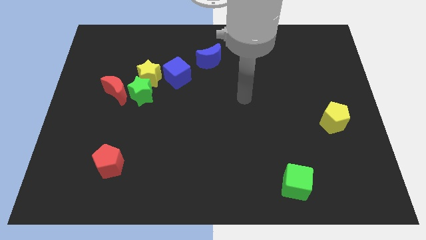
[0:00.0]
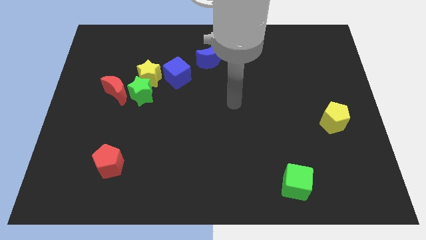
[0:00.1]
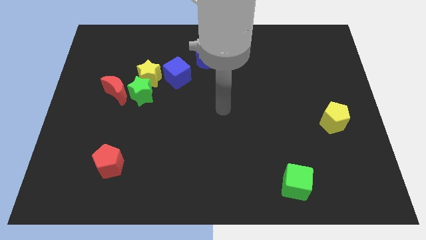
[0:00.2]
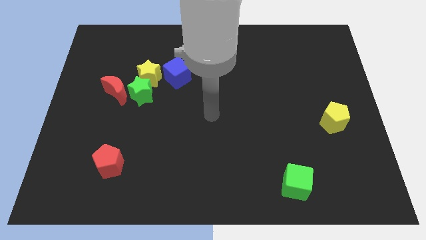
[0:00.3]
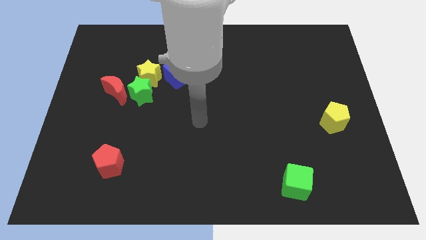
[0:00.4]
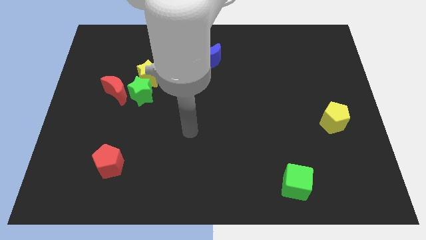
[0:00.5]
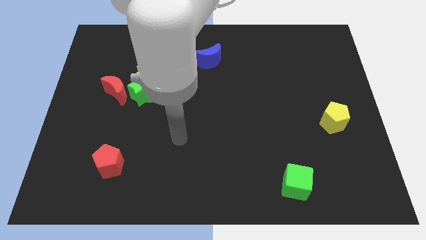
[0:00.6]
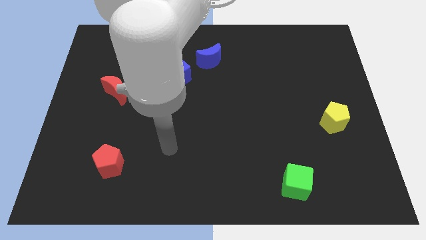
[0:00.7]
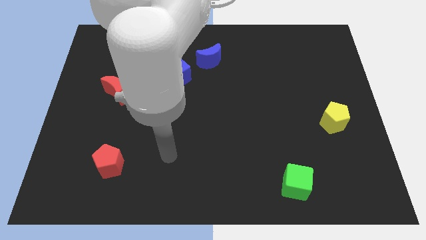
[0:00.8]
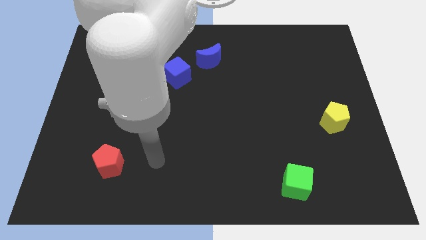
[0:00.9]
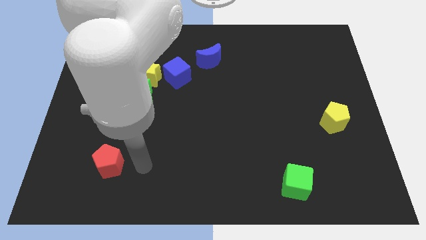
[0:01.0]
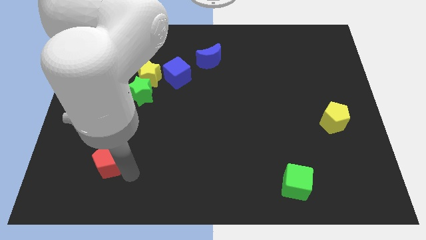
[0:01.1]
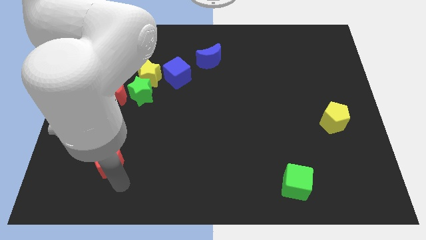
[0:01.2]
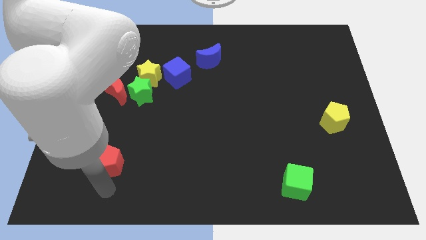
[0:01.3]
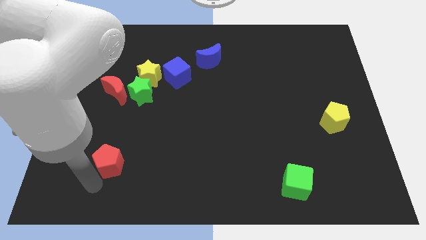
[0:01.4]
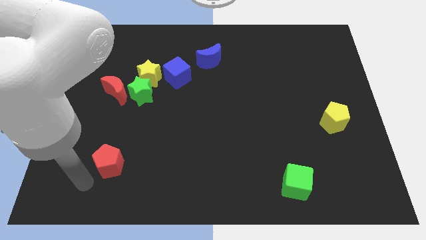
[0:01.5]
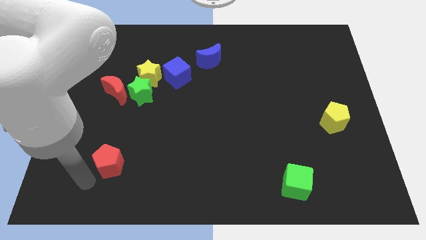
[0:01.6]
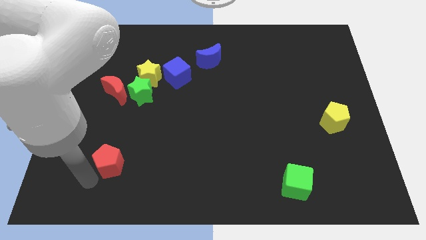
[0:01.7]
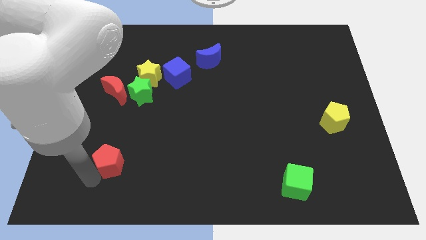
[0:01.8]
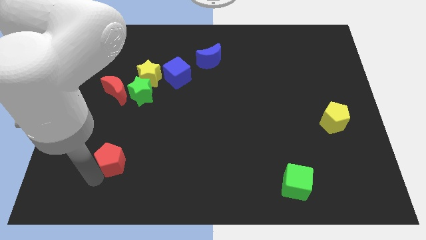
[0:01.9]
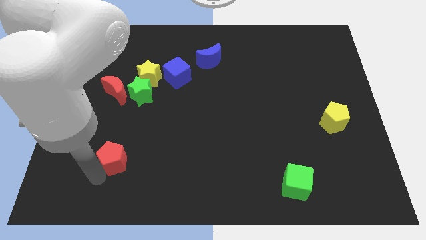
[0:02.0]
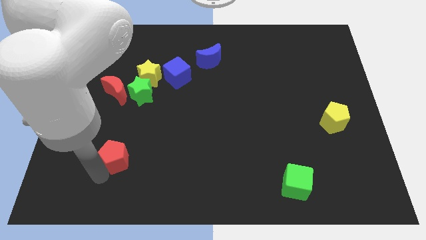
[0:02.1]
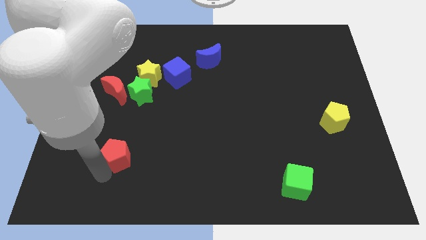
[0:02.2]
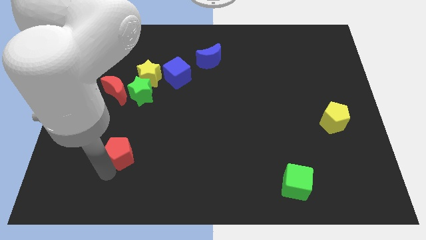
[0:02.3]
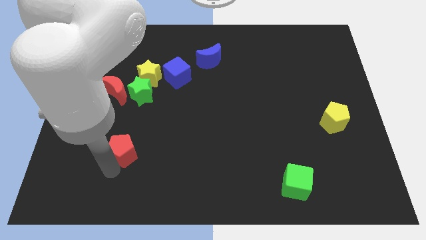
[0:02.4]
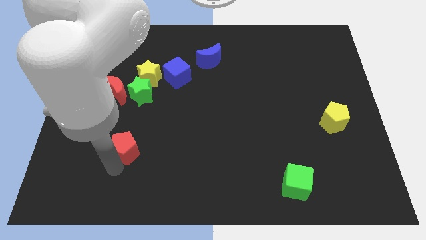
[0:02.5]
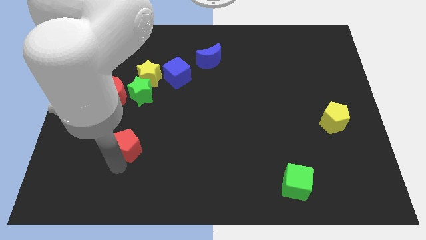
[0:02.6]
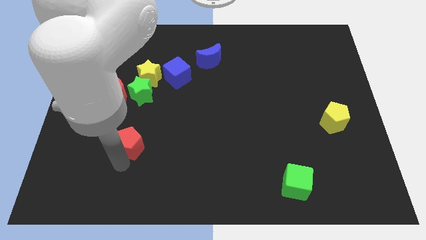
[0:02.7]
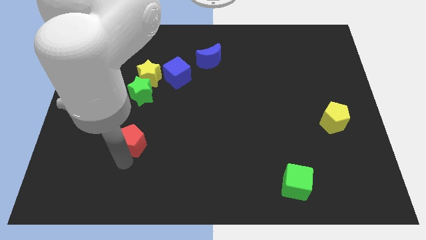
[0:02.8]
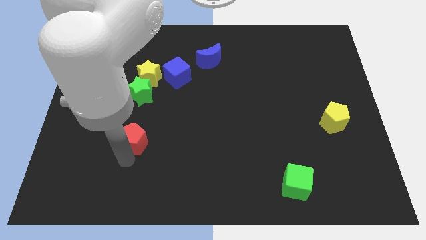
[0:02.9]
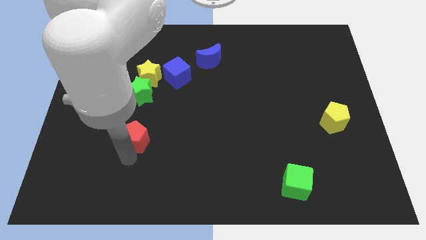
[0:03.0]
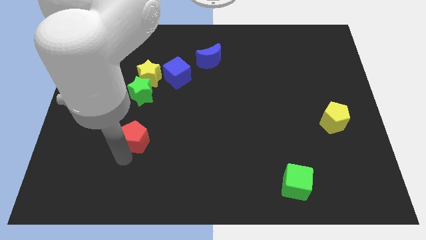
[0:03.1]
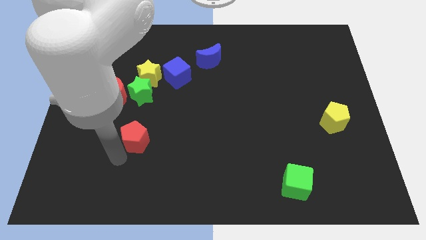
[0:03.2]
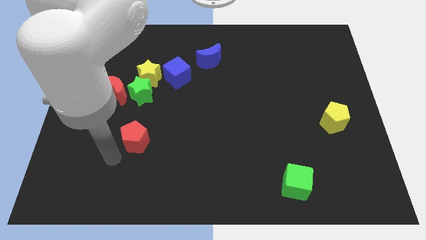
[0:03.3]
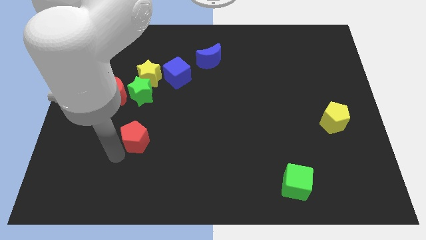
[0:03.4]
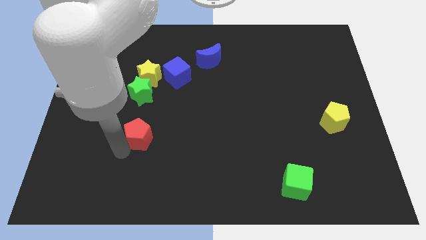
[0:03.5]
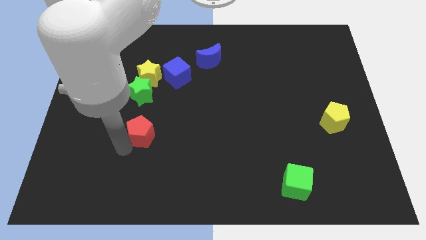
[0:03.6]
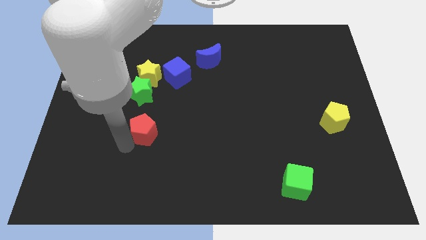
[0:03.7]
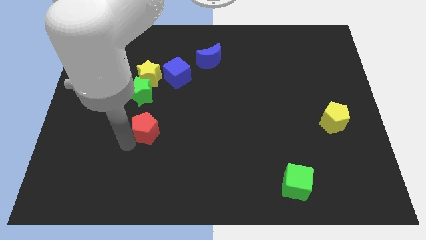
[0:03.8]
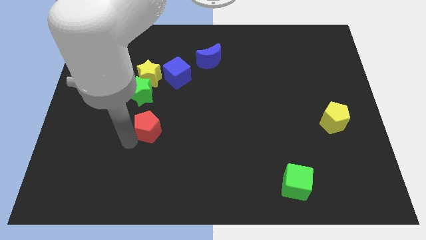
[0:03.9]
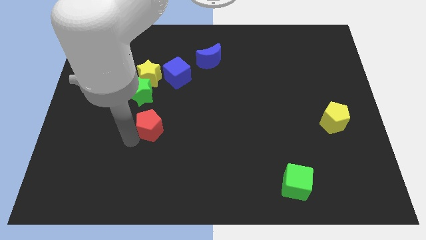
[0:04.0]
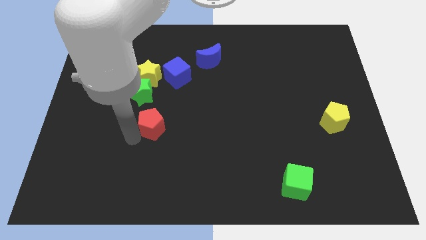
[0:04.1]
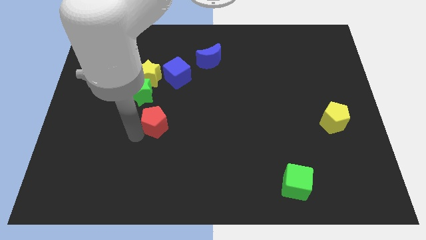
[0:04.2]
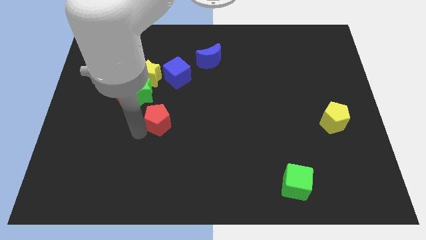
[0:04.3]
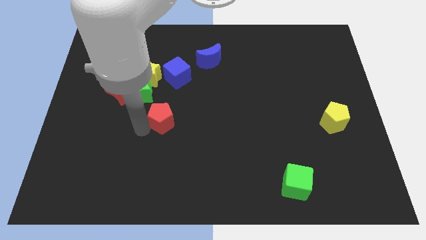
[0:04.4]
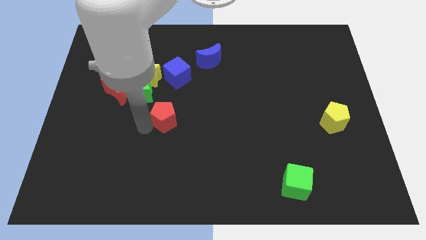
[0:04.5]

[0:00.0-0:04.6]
slide the red pentagon to the center of the board

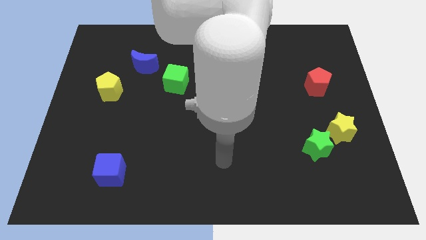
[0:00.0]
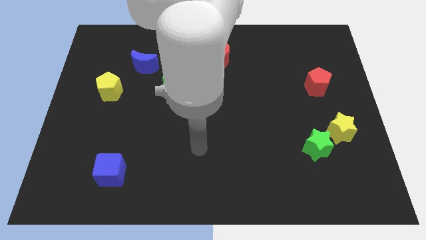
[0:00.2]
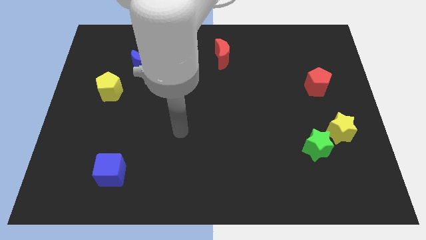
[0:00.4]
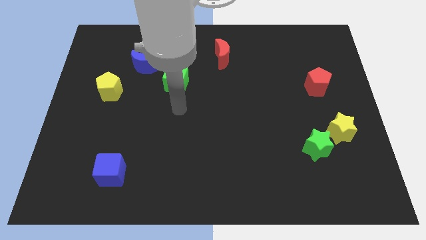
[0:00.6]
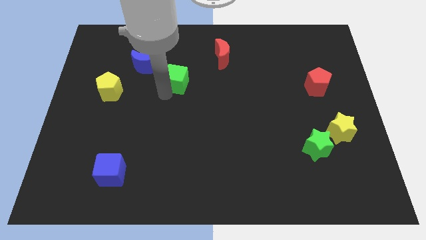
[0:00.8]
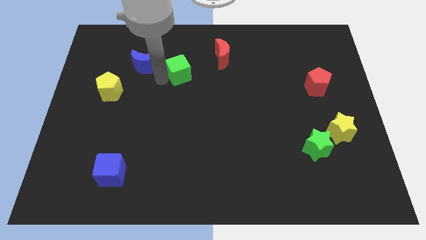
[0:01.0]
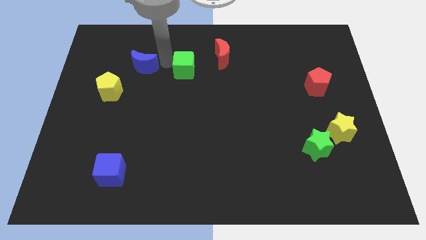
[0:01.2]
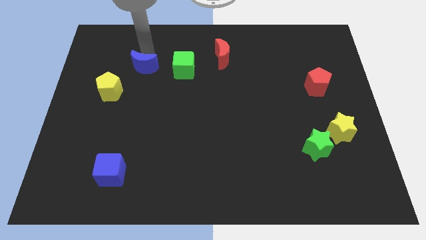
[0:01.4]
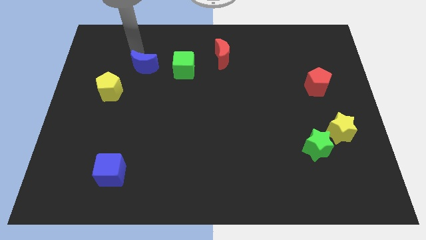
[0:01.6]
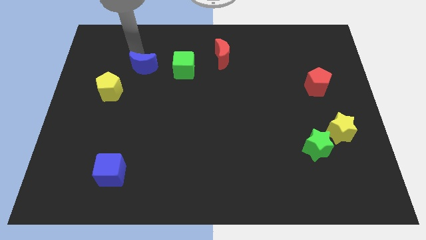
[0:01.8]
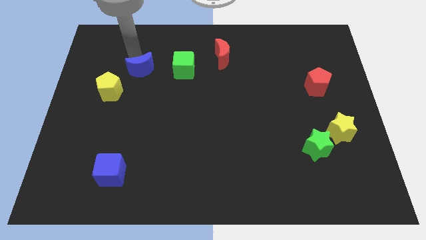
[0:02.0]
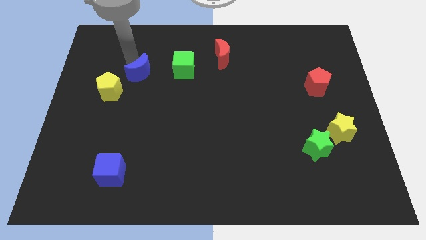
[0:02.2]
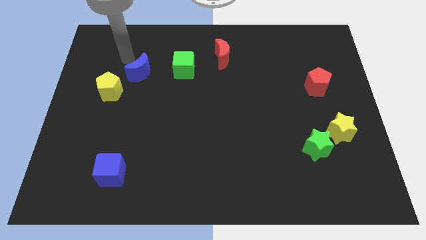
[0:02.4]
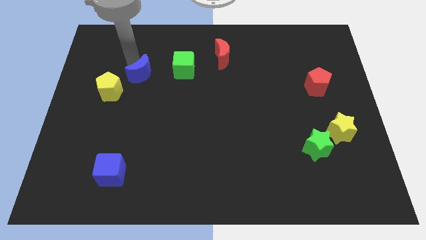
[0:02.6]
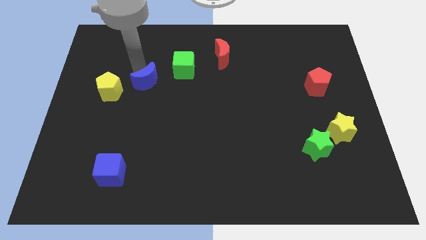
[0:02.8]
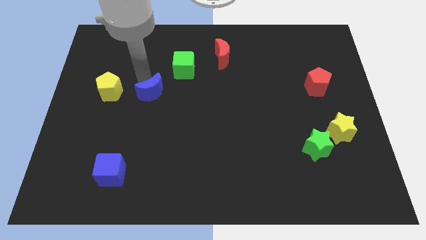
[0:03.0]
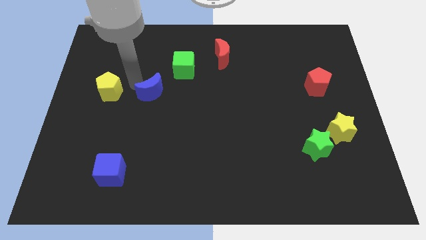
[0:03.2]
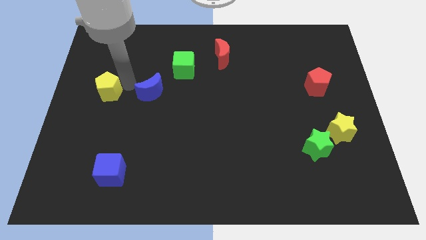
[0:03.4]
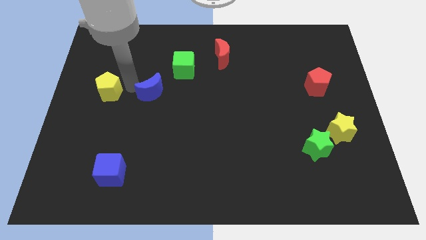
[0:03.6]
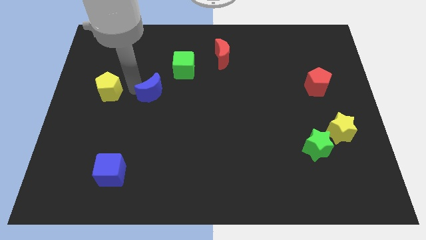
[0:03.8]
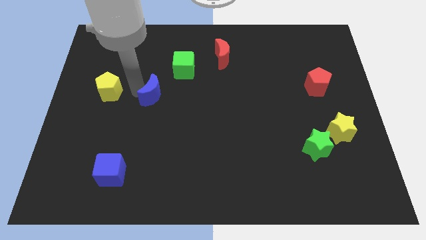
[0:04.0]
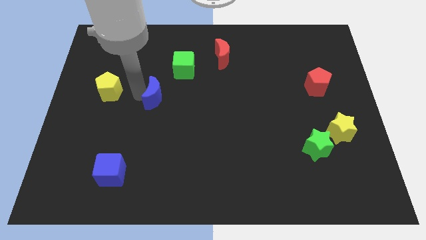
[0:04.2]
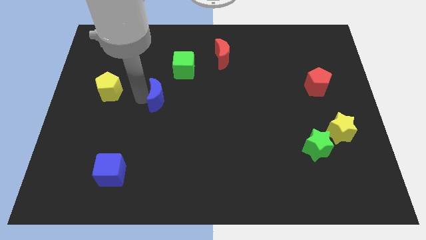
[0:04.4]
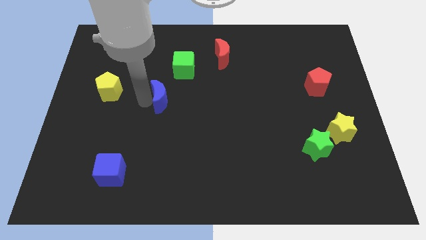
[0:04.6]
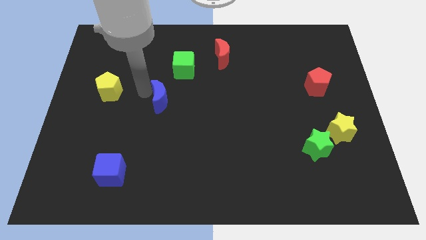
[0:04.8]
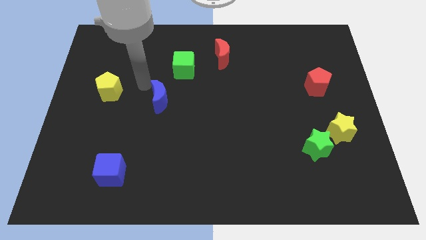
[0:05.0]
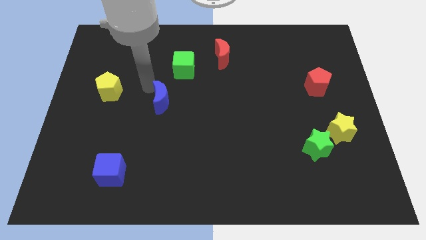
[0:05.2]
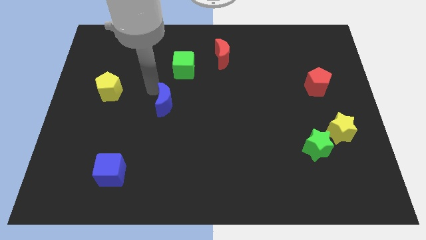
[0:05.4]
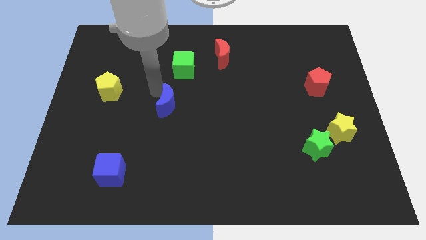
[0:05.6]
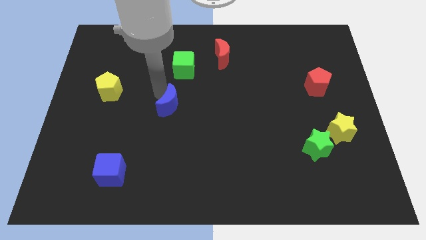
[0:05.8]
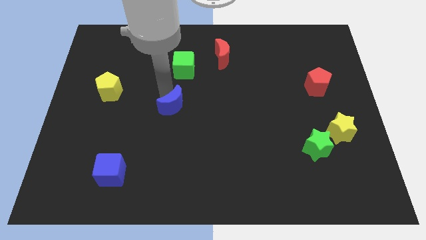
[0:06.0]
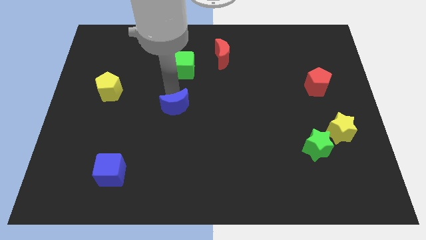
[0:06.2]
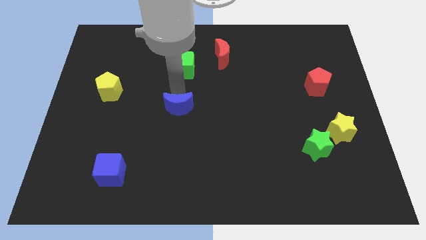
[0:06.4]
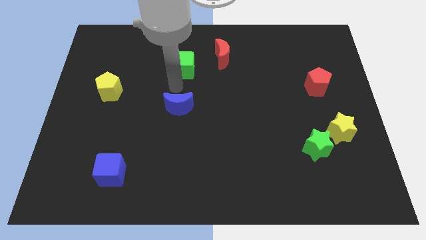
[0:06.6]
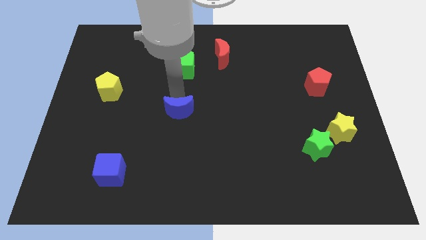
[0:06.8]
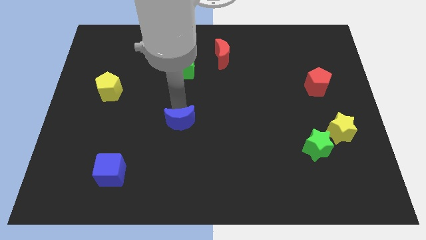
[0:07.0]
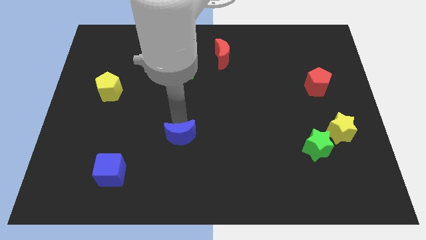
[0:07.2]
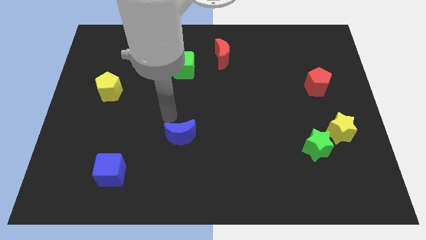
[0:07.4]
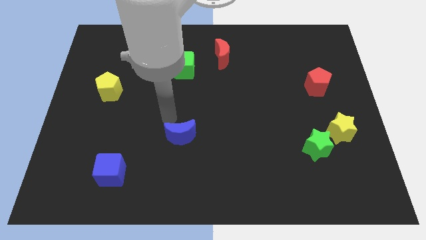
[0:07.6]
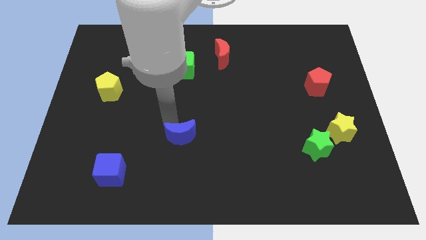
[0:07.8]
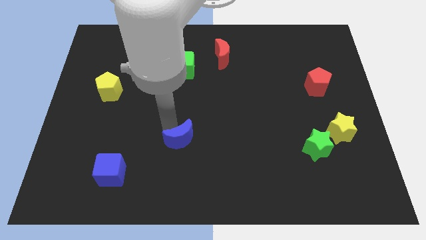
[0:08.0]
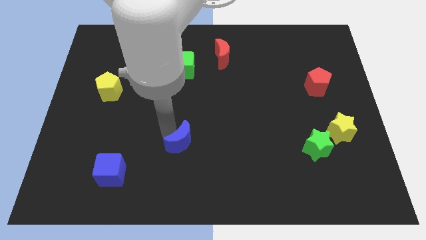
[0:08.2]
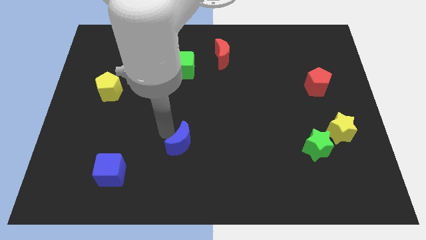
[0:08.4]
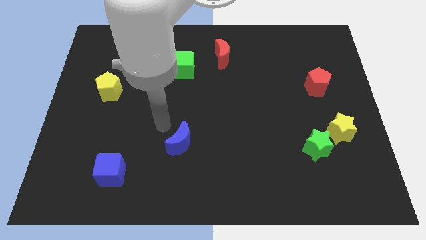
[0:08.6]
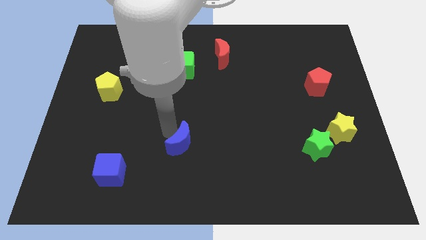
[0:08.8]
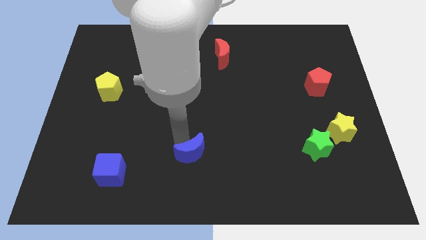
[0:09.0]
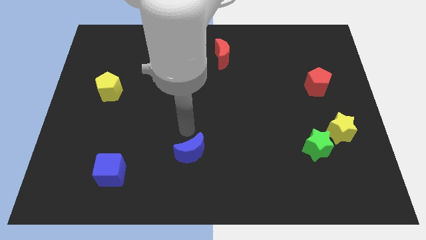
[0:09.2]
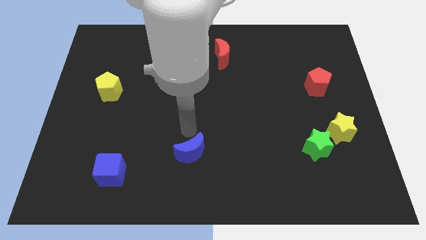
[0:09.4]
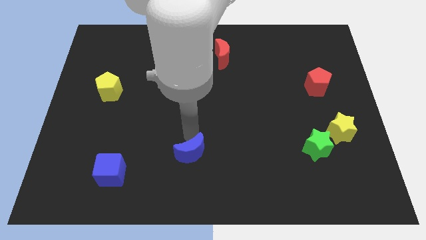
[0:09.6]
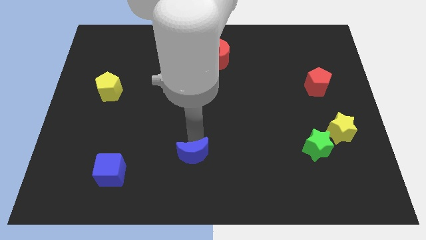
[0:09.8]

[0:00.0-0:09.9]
move the blue moon to the bottom side
